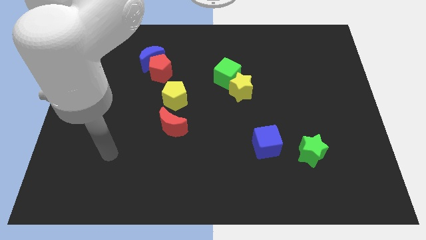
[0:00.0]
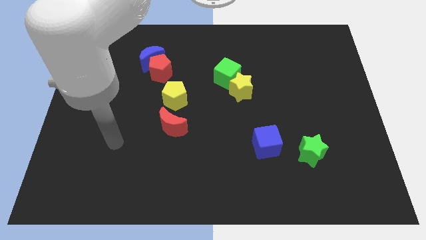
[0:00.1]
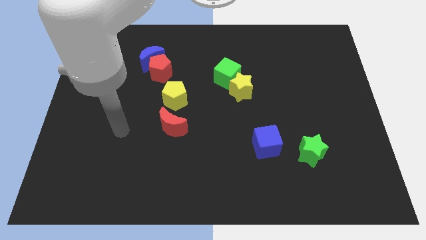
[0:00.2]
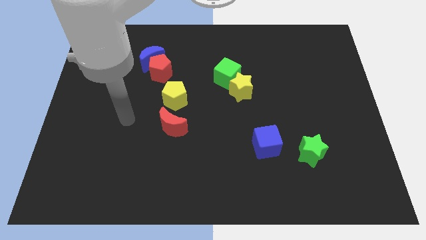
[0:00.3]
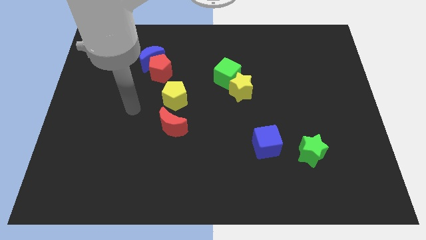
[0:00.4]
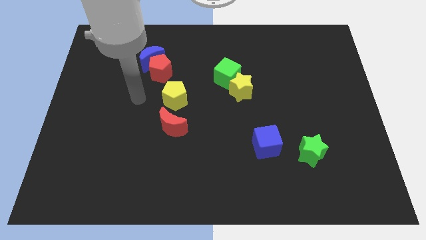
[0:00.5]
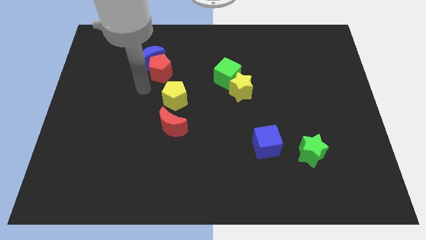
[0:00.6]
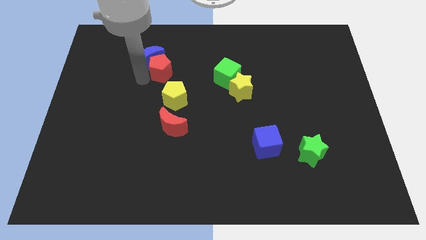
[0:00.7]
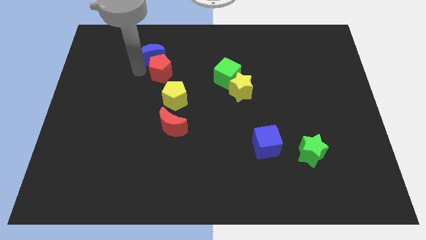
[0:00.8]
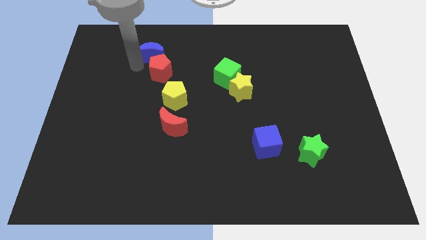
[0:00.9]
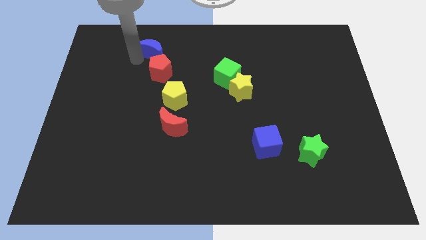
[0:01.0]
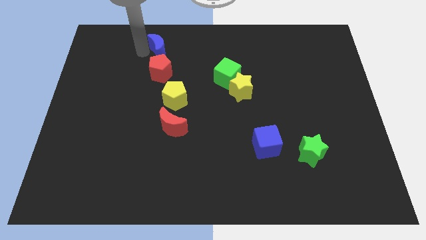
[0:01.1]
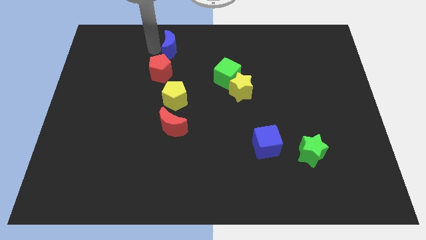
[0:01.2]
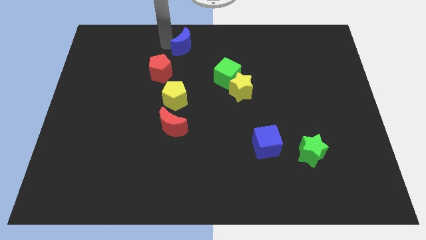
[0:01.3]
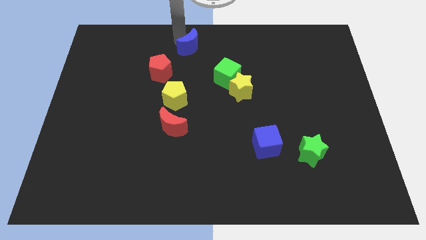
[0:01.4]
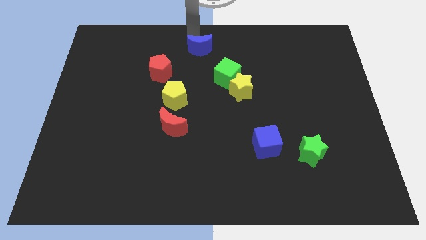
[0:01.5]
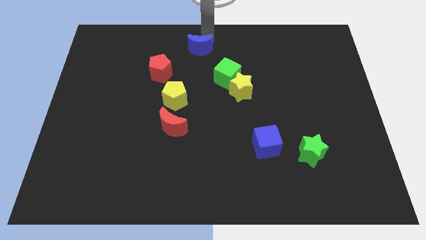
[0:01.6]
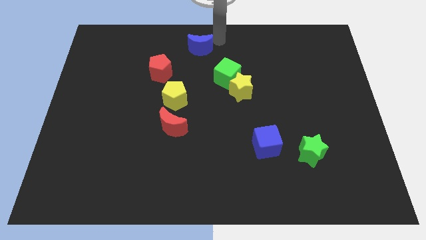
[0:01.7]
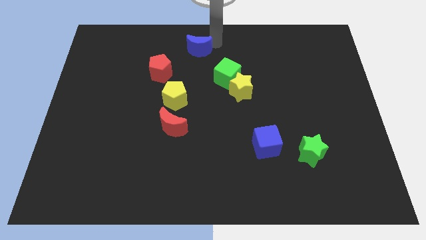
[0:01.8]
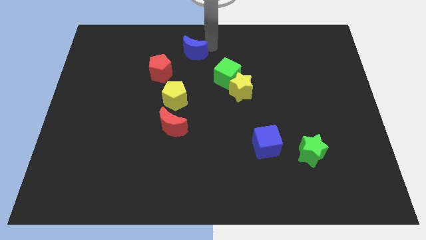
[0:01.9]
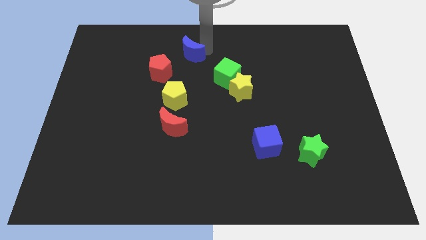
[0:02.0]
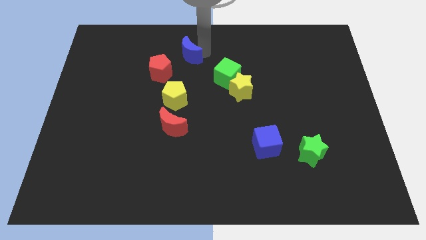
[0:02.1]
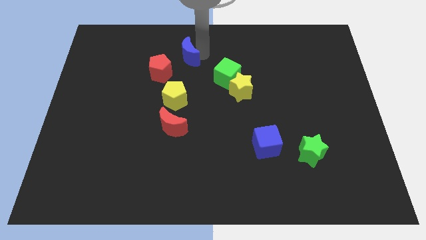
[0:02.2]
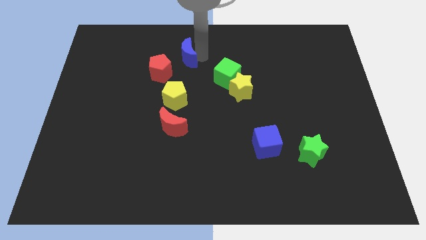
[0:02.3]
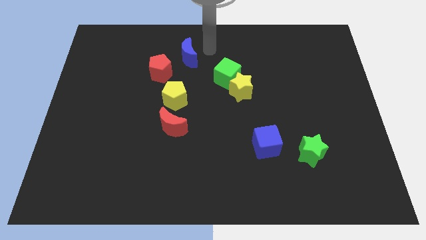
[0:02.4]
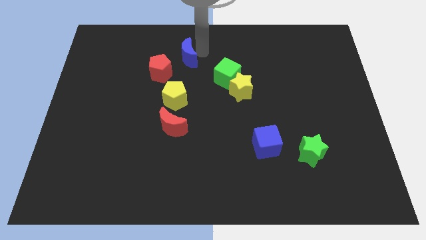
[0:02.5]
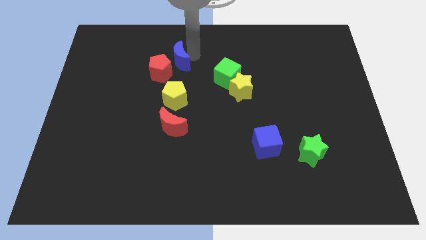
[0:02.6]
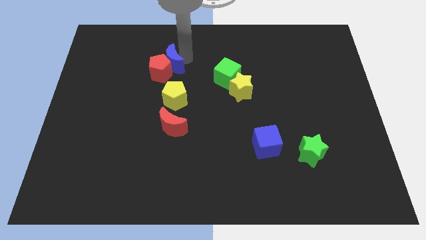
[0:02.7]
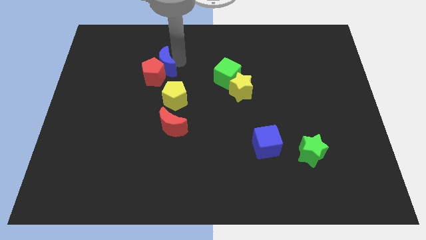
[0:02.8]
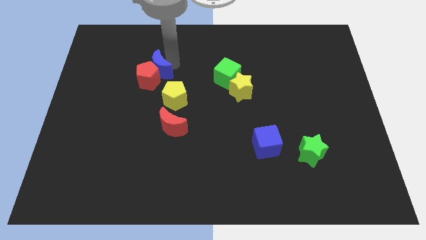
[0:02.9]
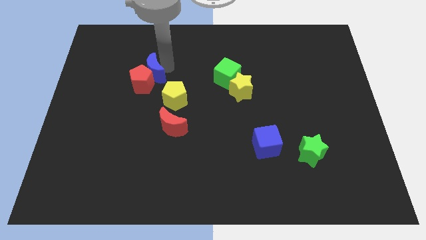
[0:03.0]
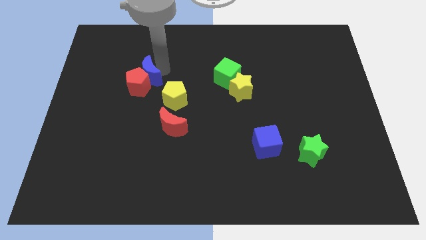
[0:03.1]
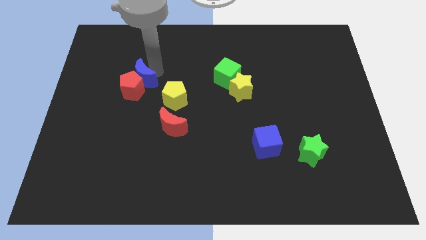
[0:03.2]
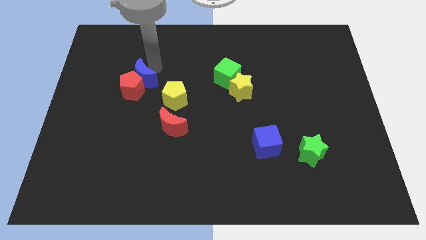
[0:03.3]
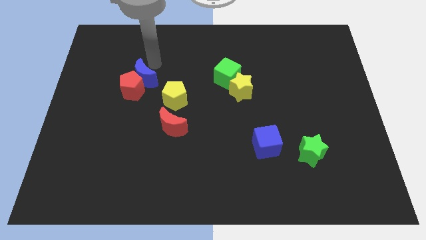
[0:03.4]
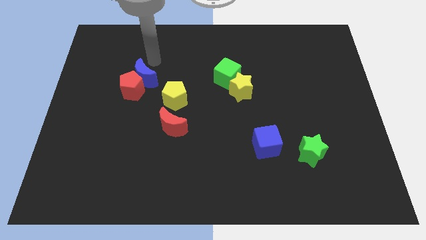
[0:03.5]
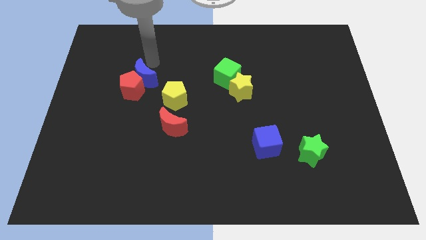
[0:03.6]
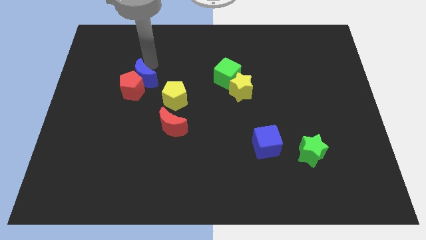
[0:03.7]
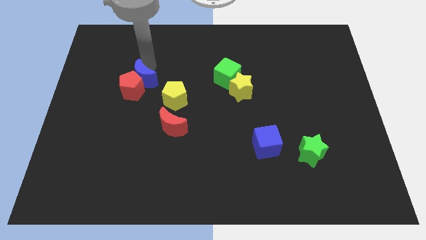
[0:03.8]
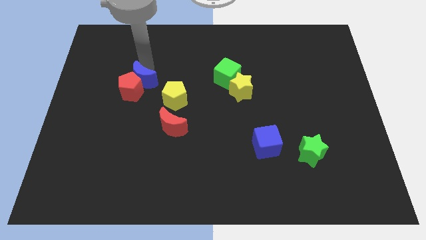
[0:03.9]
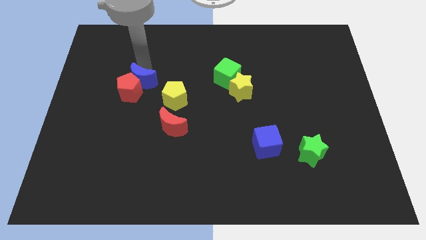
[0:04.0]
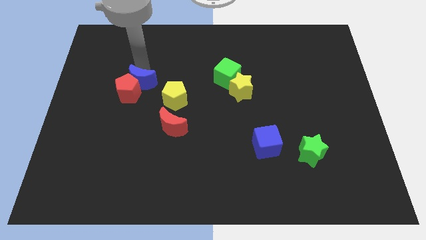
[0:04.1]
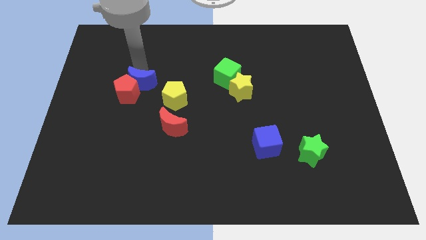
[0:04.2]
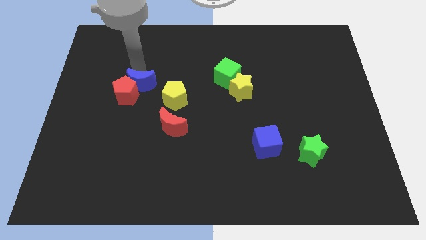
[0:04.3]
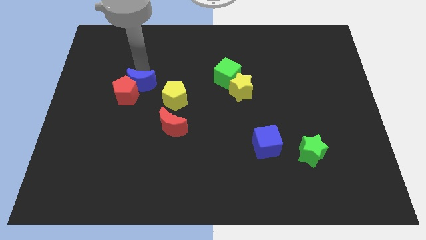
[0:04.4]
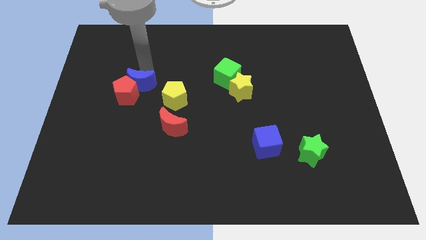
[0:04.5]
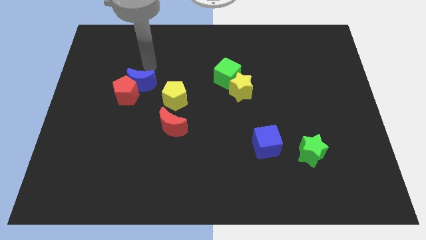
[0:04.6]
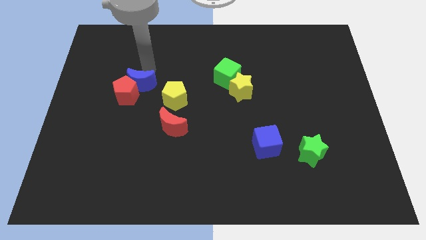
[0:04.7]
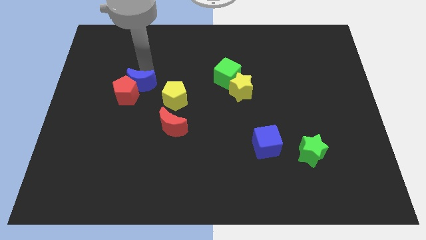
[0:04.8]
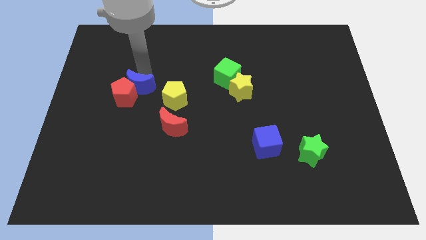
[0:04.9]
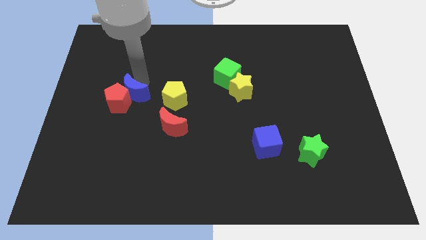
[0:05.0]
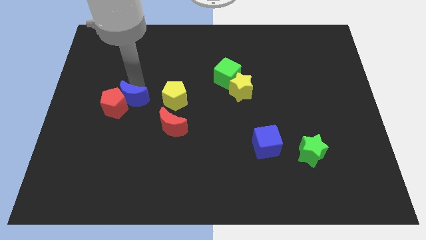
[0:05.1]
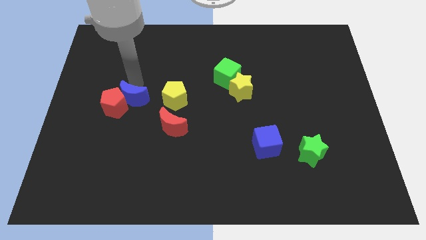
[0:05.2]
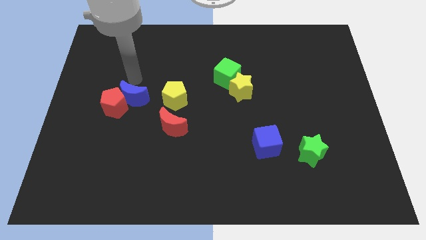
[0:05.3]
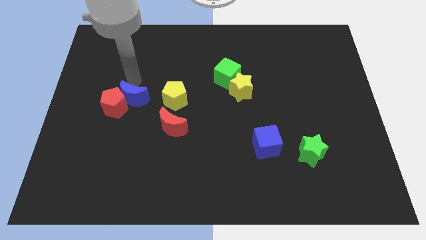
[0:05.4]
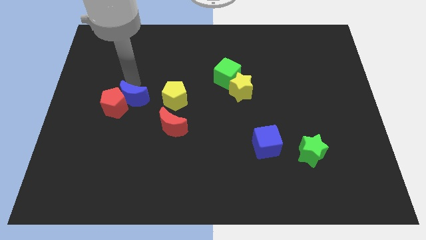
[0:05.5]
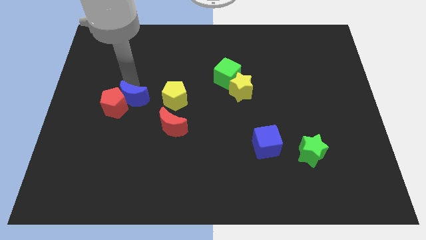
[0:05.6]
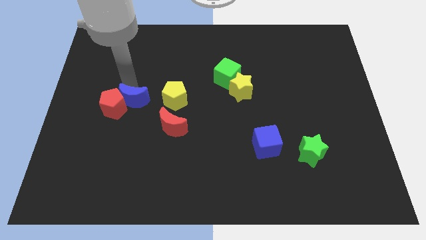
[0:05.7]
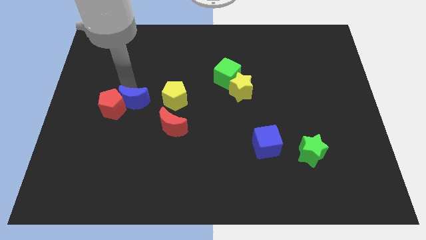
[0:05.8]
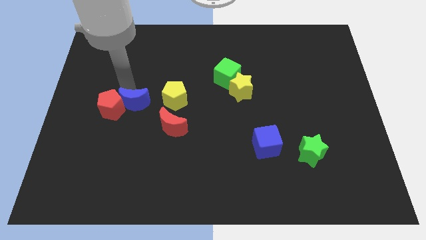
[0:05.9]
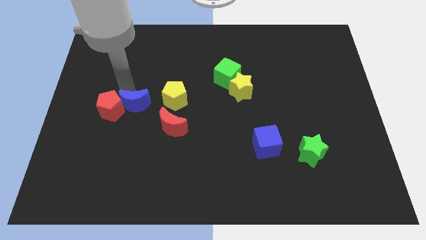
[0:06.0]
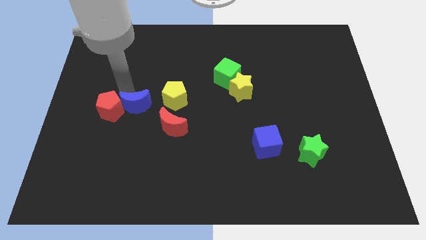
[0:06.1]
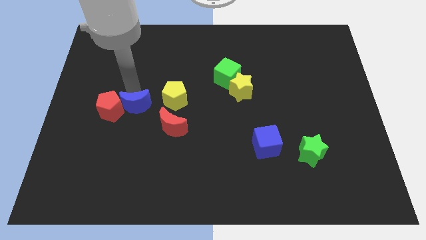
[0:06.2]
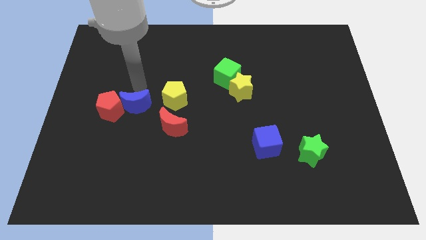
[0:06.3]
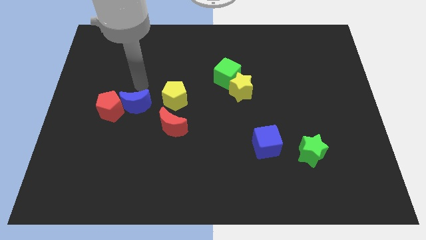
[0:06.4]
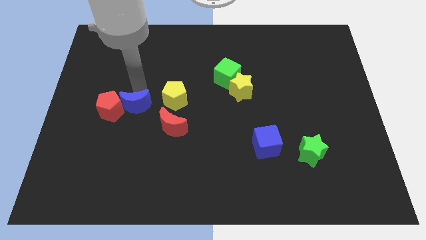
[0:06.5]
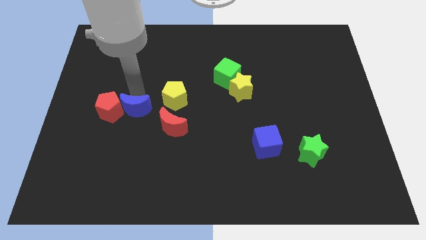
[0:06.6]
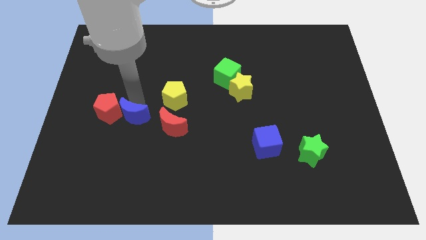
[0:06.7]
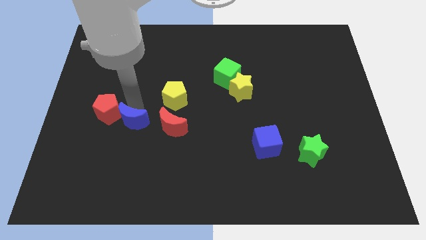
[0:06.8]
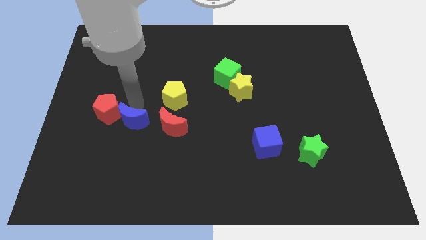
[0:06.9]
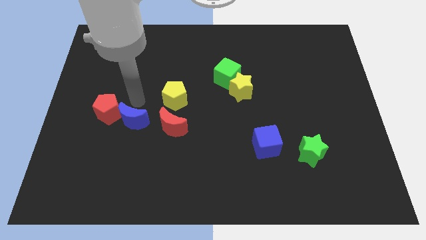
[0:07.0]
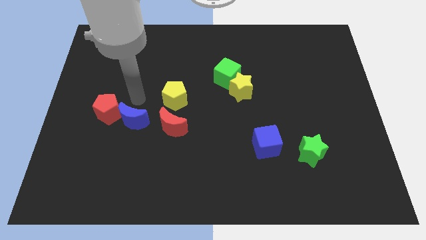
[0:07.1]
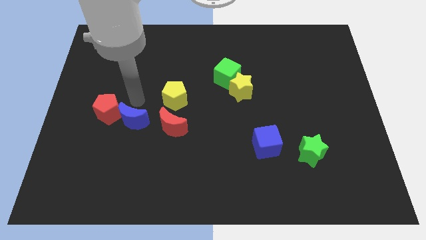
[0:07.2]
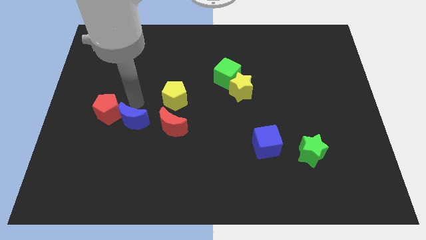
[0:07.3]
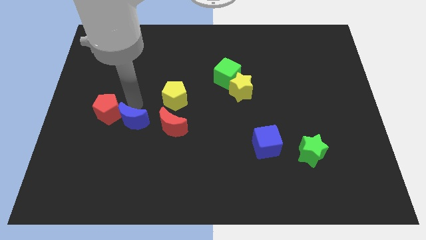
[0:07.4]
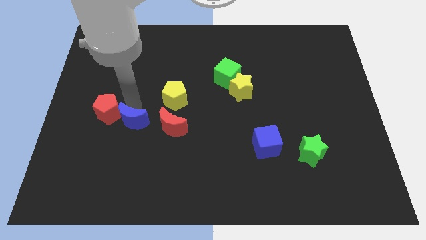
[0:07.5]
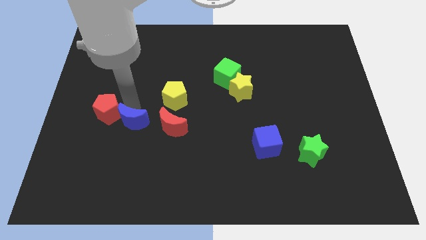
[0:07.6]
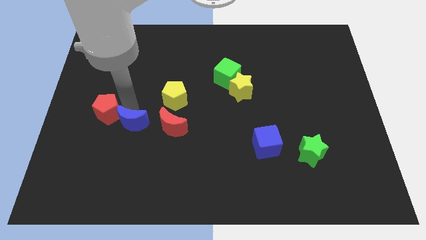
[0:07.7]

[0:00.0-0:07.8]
slide the blue moon down

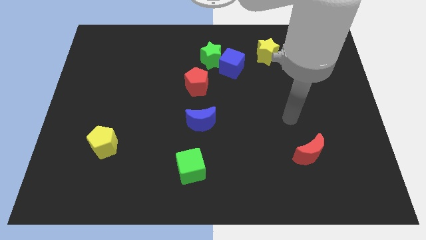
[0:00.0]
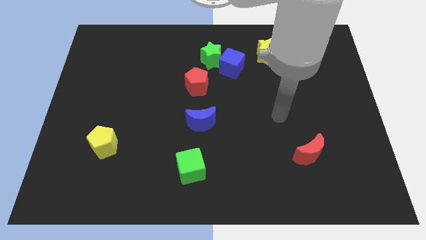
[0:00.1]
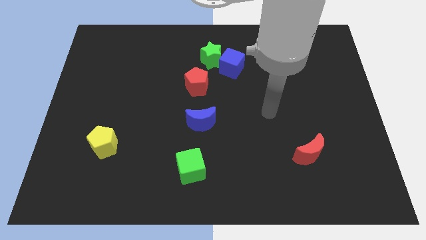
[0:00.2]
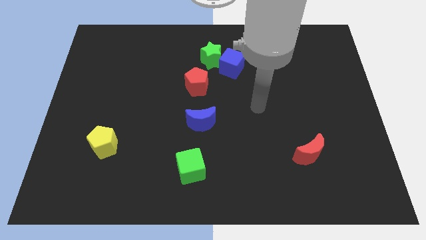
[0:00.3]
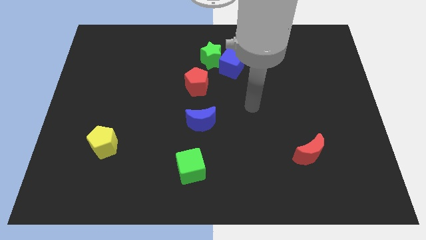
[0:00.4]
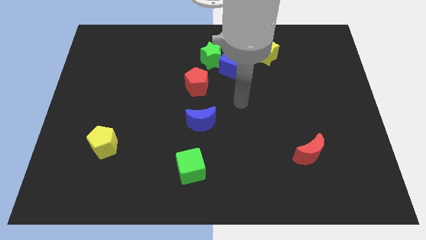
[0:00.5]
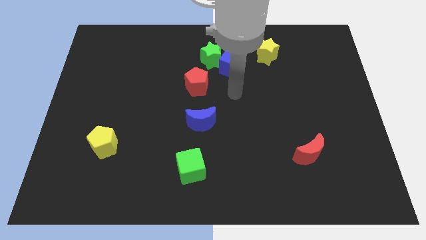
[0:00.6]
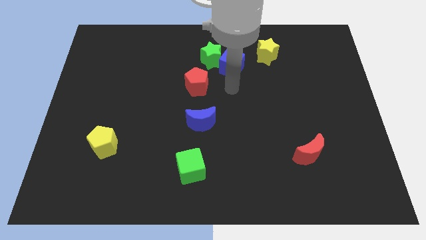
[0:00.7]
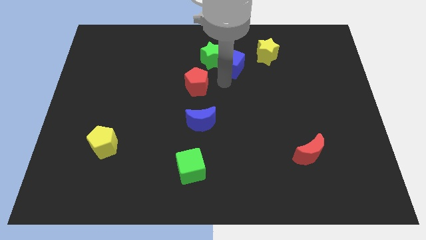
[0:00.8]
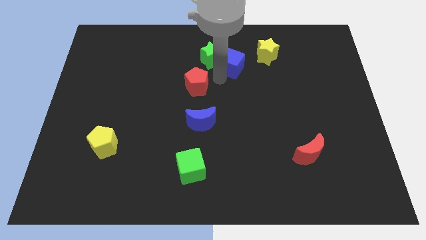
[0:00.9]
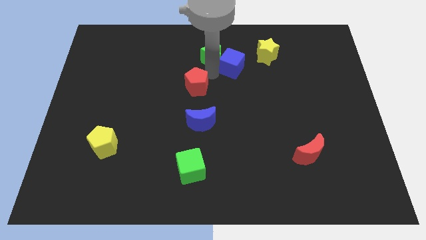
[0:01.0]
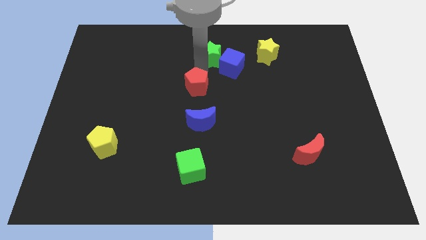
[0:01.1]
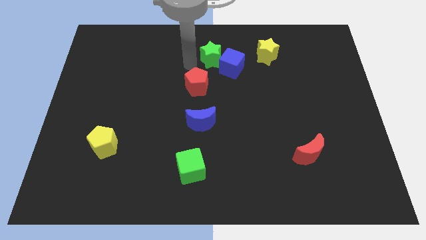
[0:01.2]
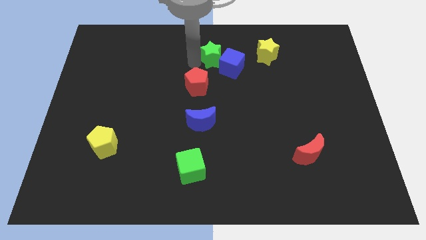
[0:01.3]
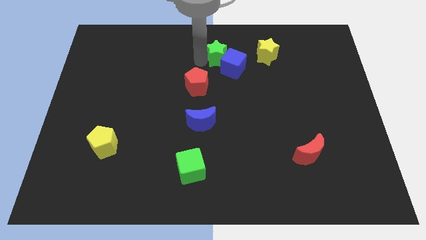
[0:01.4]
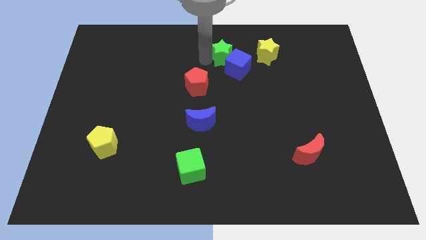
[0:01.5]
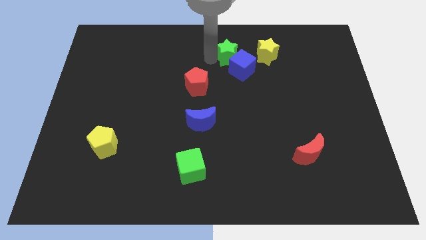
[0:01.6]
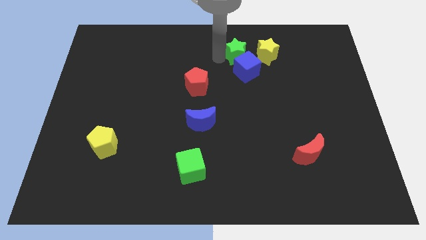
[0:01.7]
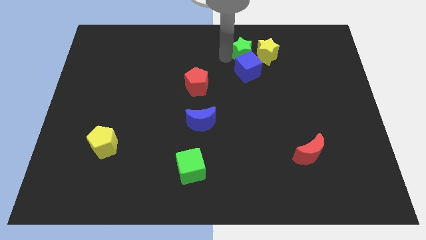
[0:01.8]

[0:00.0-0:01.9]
move the green star right a little bit
